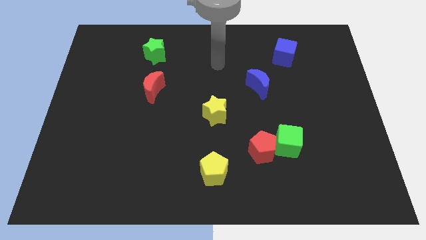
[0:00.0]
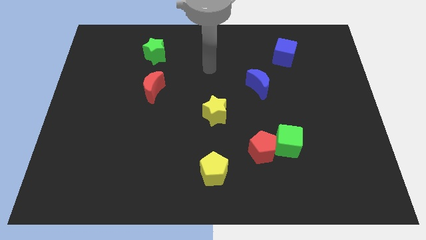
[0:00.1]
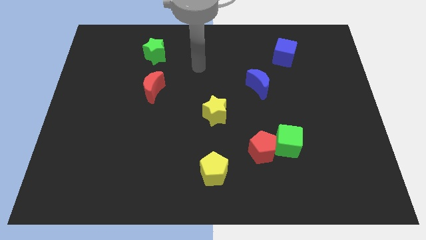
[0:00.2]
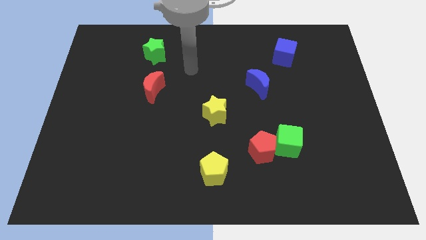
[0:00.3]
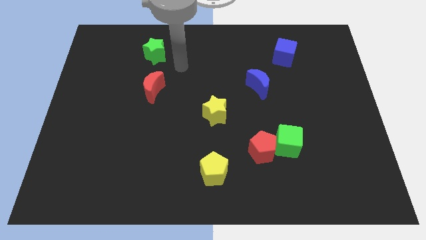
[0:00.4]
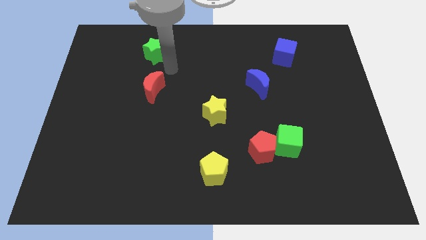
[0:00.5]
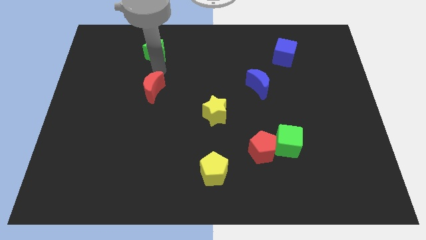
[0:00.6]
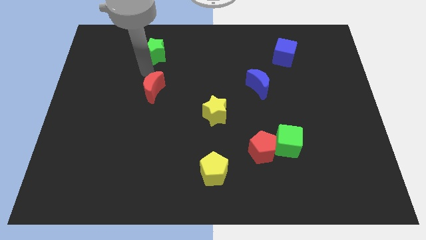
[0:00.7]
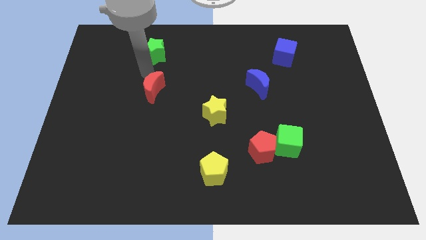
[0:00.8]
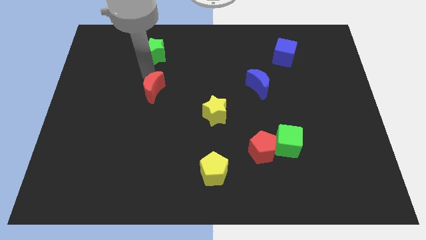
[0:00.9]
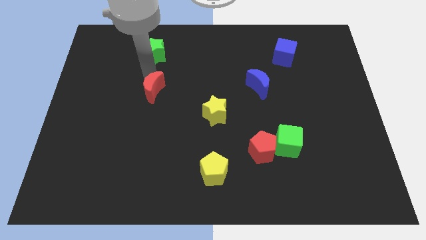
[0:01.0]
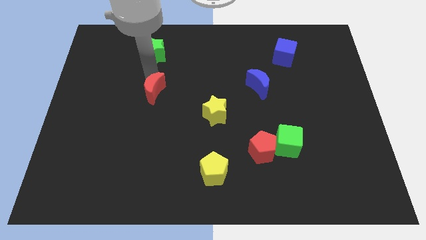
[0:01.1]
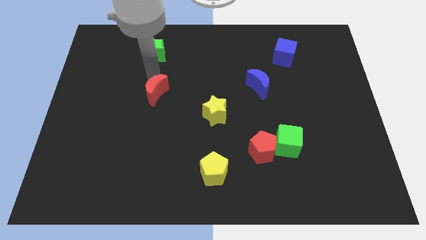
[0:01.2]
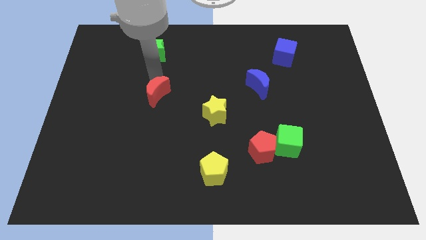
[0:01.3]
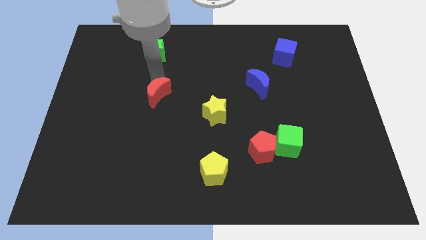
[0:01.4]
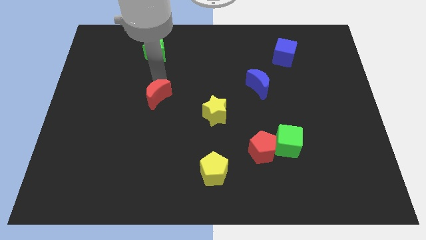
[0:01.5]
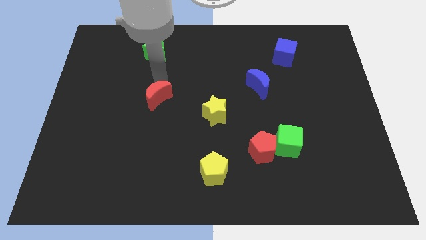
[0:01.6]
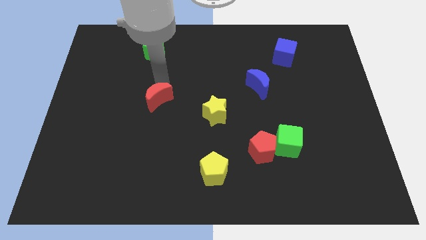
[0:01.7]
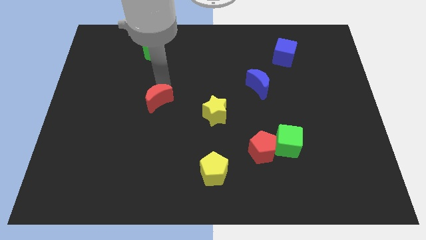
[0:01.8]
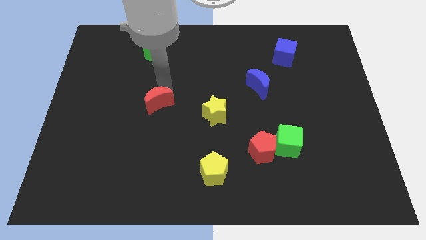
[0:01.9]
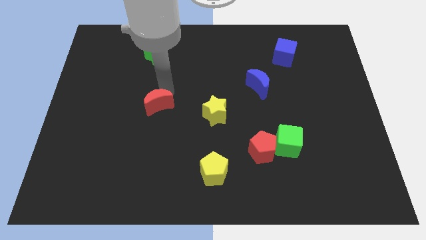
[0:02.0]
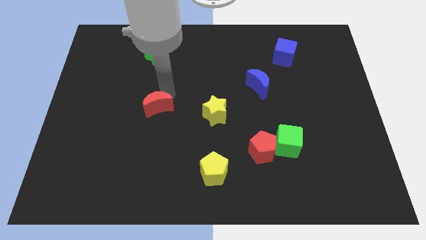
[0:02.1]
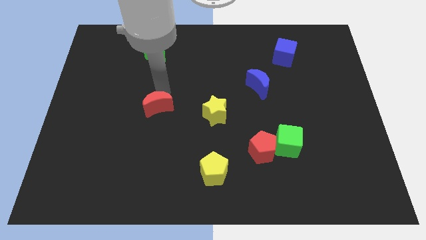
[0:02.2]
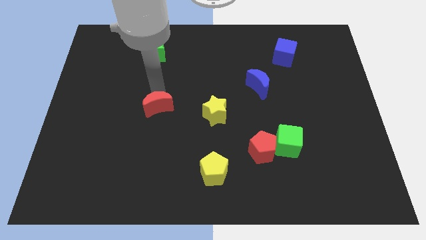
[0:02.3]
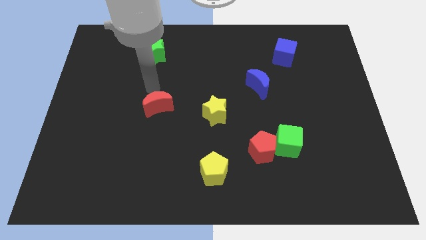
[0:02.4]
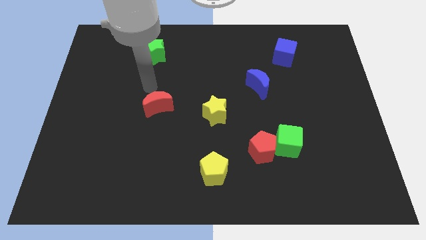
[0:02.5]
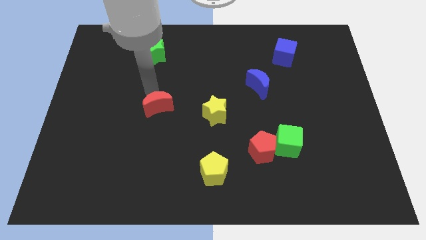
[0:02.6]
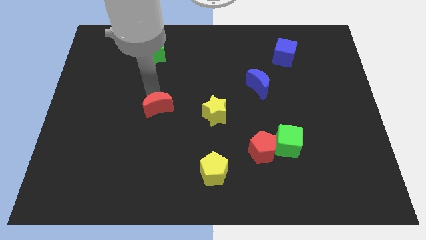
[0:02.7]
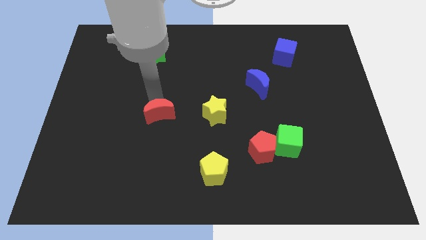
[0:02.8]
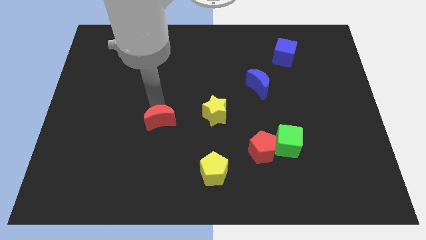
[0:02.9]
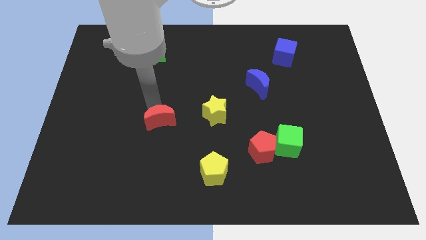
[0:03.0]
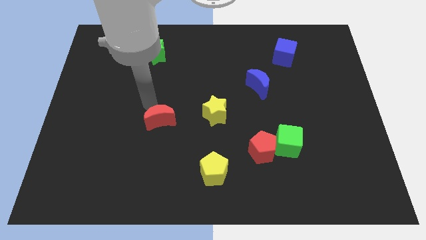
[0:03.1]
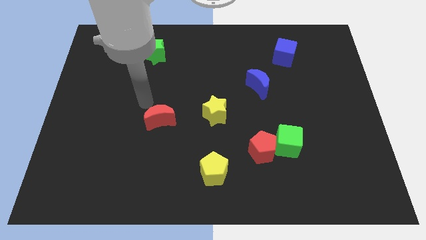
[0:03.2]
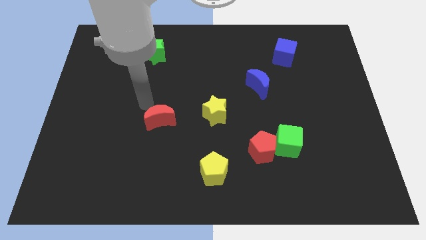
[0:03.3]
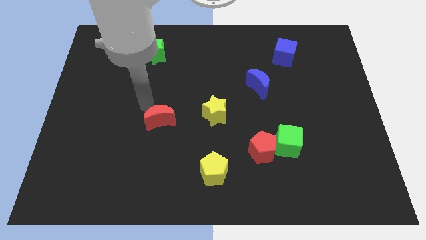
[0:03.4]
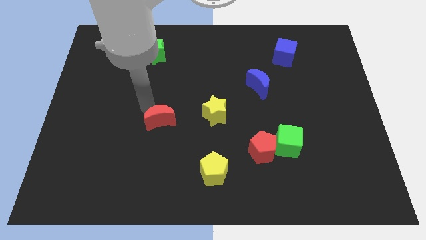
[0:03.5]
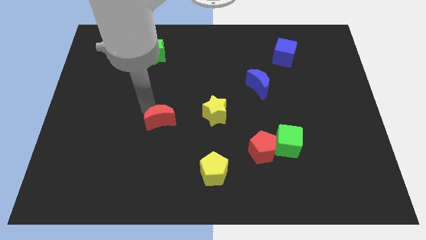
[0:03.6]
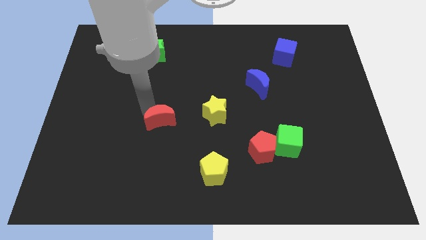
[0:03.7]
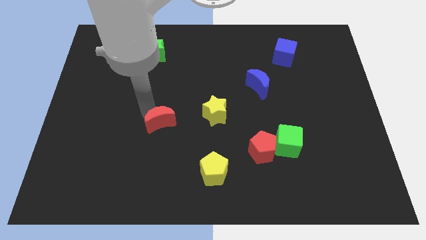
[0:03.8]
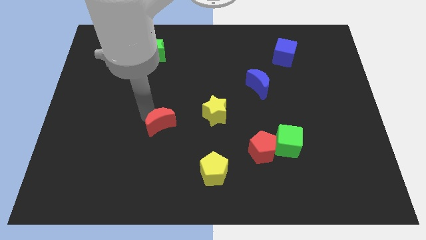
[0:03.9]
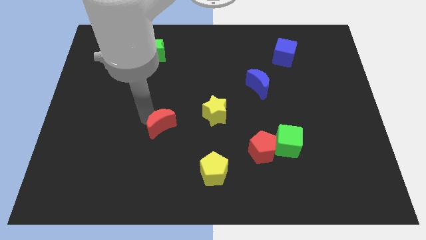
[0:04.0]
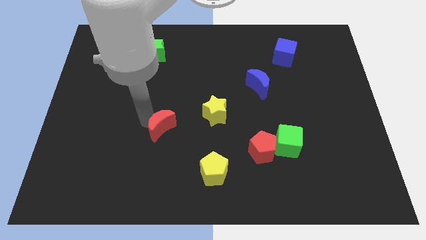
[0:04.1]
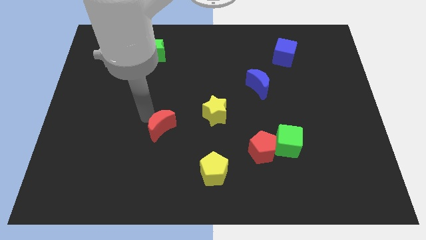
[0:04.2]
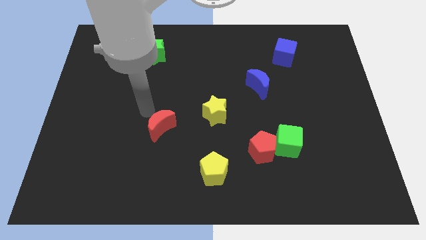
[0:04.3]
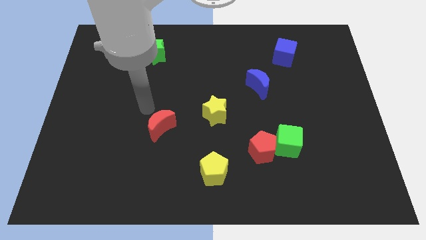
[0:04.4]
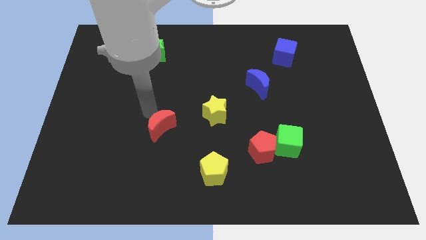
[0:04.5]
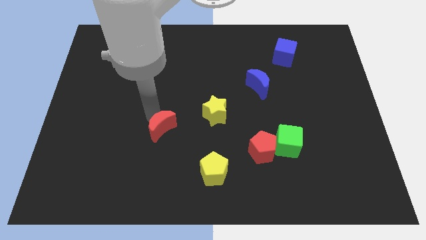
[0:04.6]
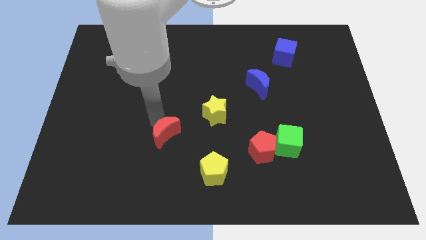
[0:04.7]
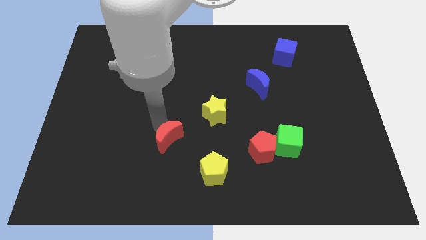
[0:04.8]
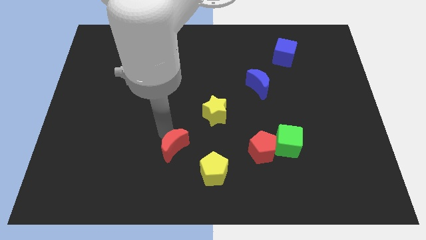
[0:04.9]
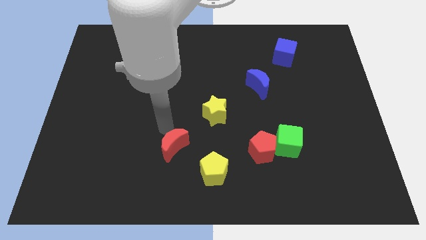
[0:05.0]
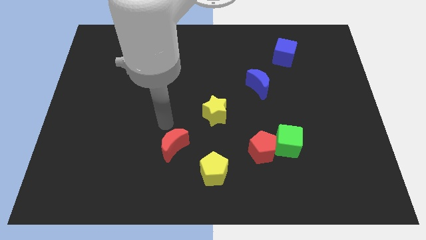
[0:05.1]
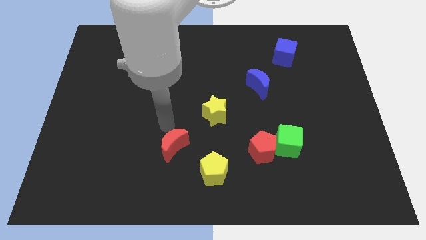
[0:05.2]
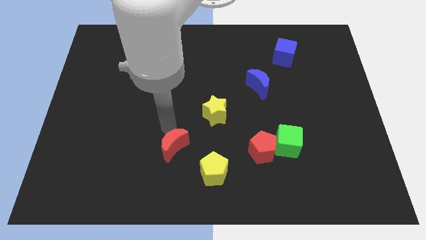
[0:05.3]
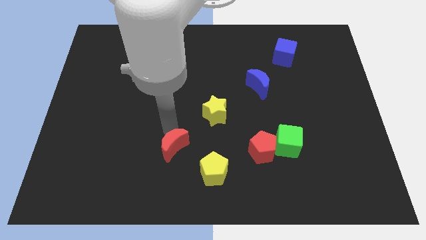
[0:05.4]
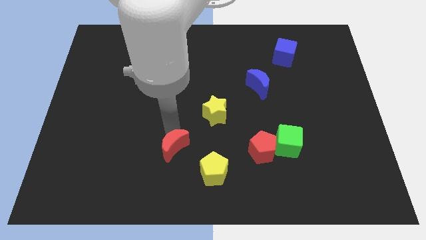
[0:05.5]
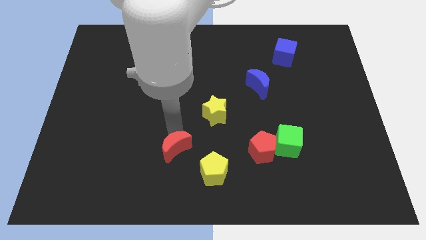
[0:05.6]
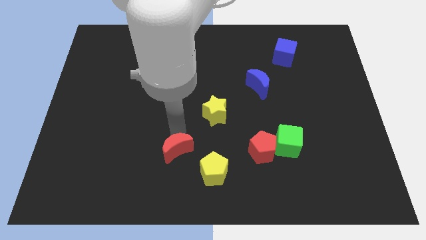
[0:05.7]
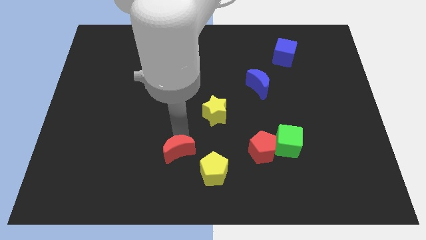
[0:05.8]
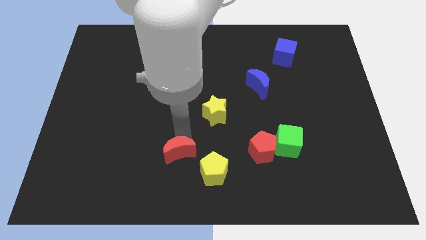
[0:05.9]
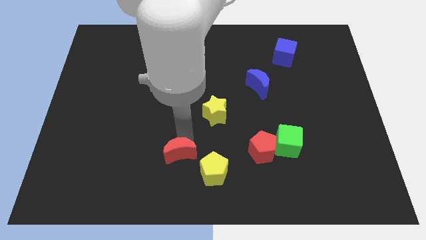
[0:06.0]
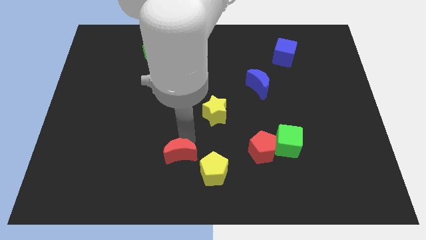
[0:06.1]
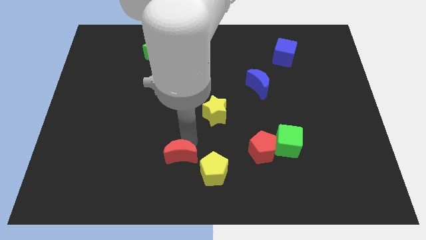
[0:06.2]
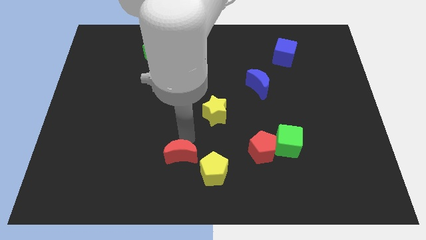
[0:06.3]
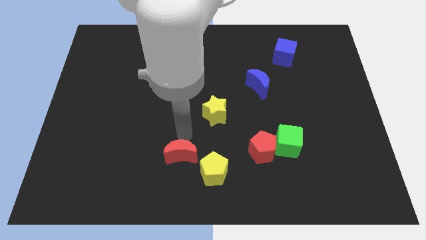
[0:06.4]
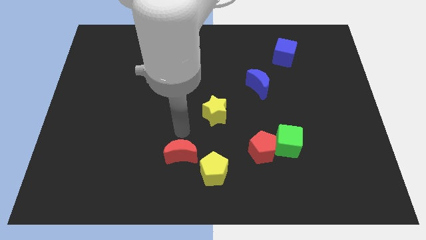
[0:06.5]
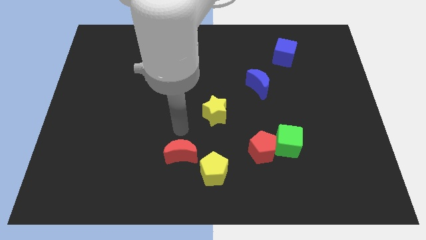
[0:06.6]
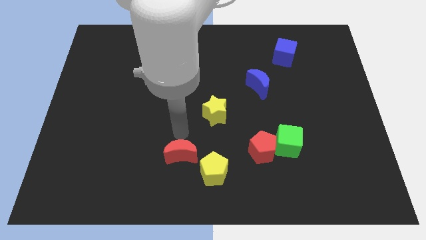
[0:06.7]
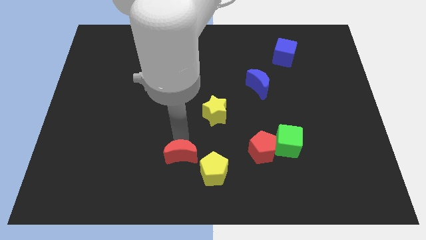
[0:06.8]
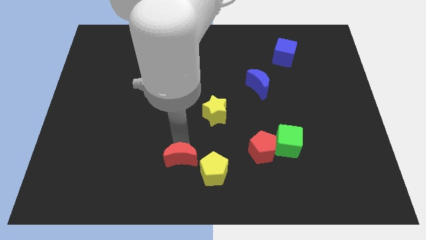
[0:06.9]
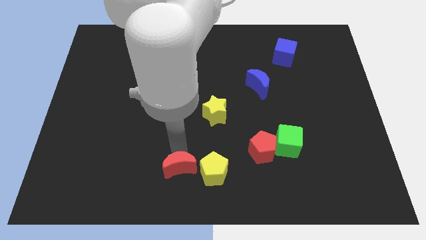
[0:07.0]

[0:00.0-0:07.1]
push the red moon to the bottom

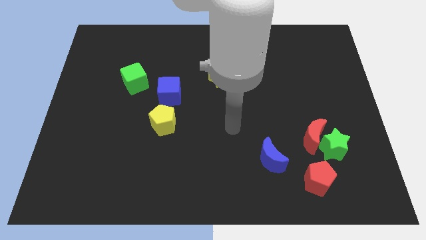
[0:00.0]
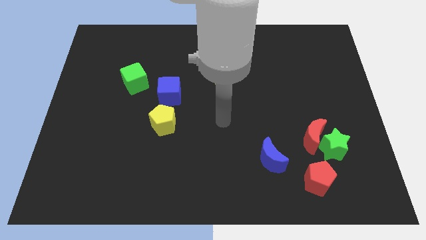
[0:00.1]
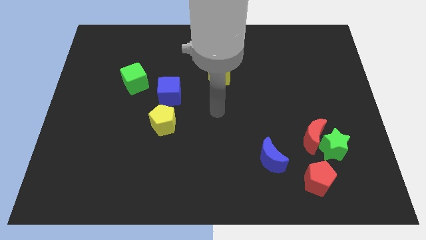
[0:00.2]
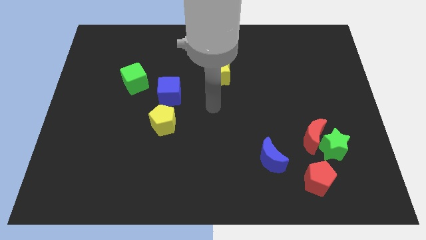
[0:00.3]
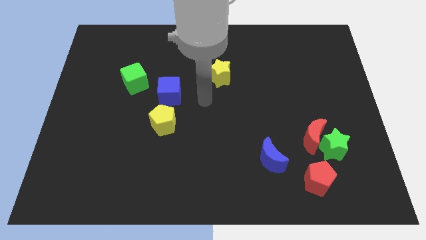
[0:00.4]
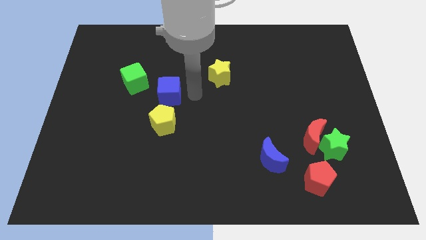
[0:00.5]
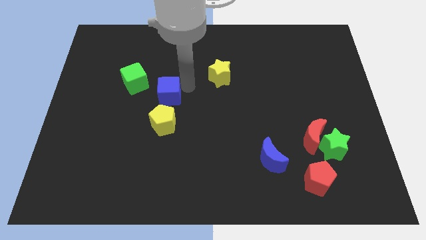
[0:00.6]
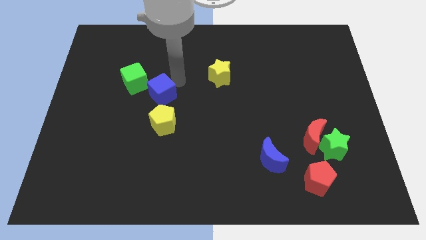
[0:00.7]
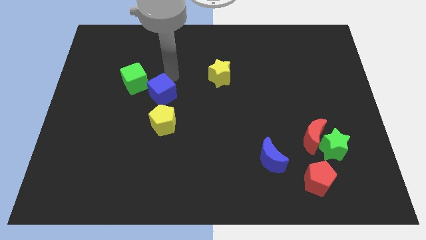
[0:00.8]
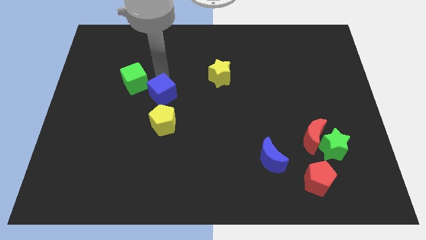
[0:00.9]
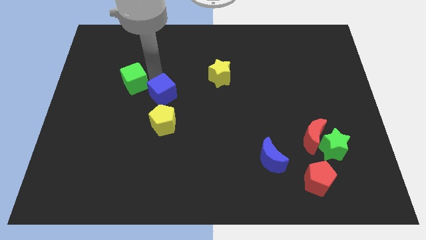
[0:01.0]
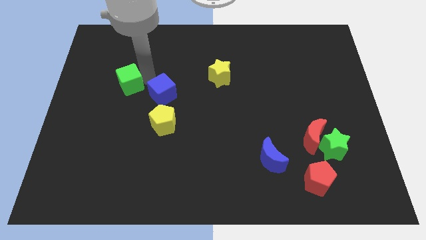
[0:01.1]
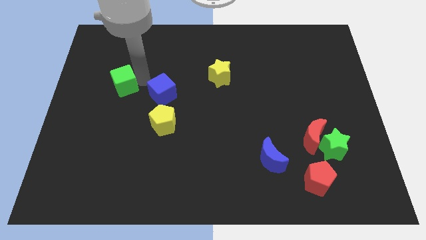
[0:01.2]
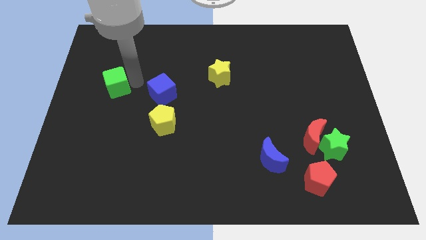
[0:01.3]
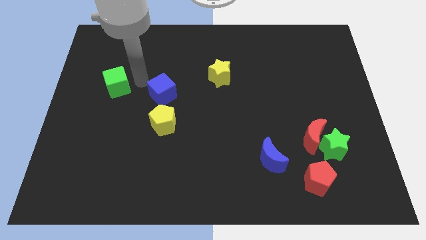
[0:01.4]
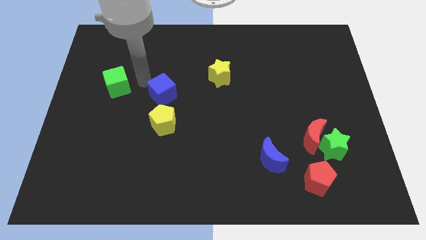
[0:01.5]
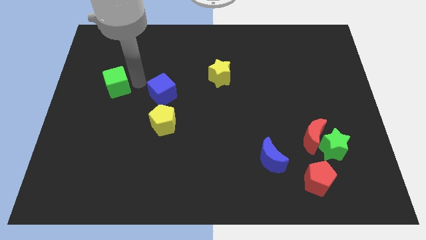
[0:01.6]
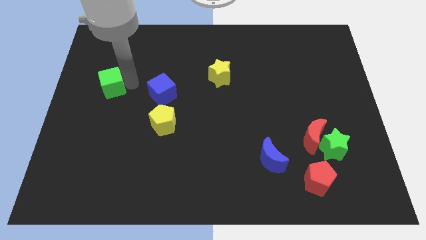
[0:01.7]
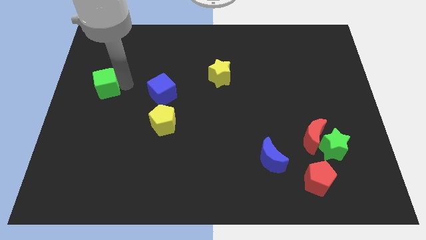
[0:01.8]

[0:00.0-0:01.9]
push the green cube to the left side
